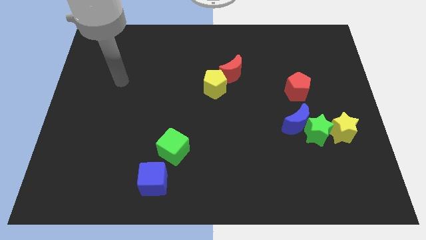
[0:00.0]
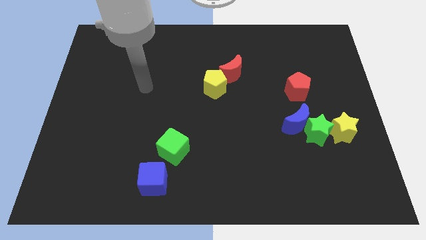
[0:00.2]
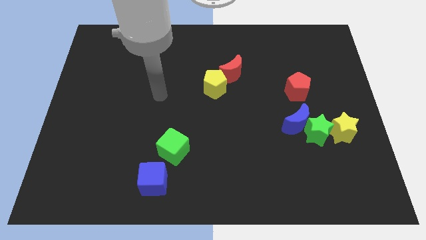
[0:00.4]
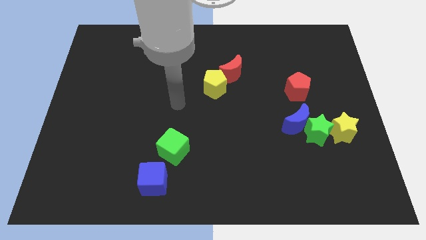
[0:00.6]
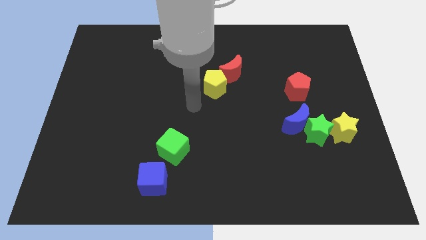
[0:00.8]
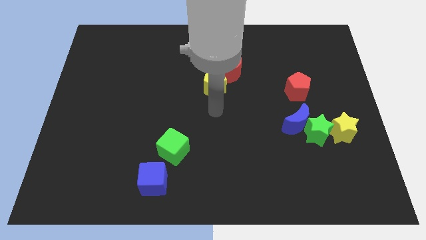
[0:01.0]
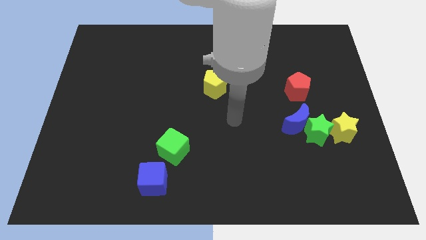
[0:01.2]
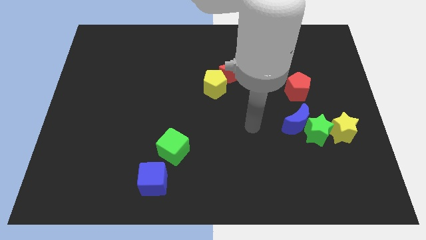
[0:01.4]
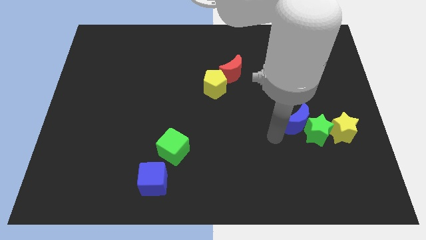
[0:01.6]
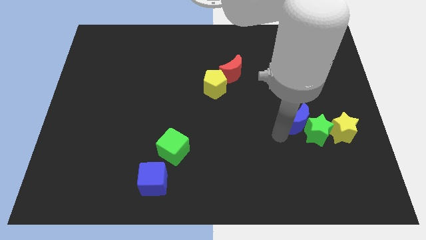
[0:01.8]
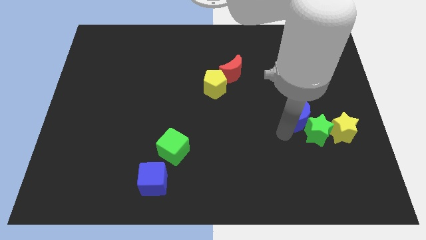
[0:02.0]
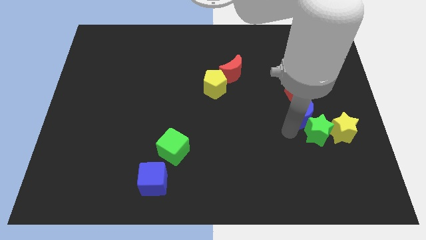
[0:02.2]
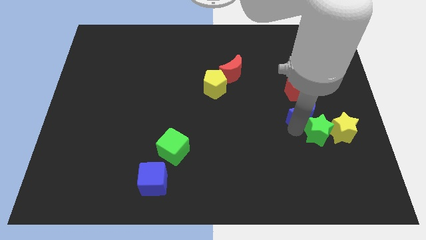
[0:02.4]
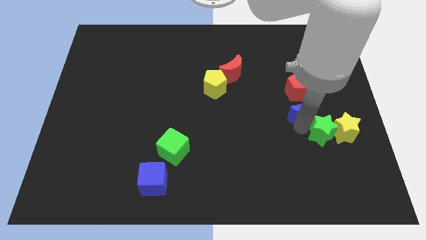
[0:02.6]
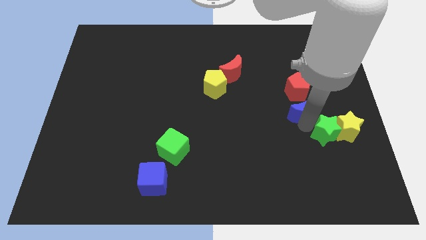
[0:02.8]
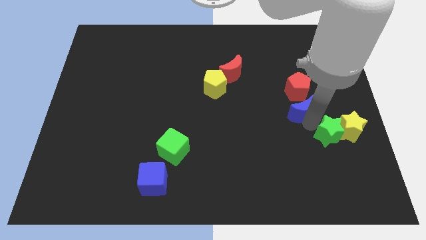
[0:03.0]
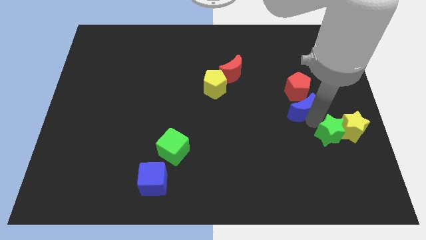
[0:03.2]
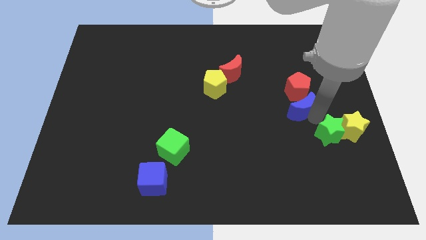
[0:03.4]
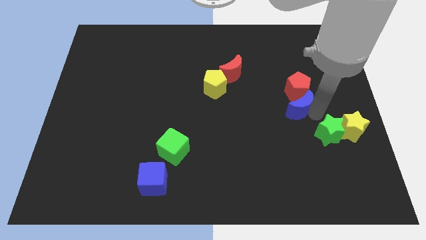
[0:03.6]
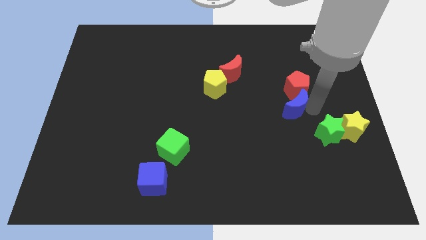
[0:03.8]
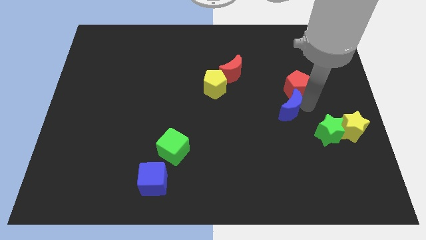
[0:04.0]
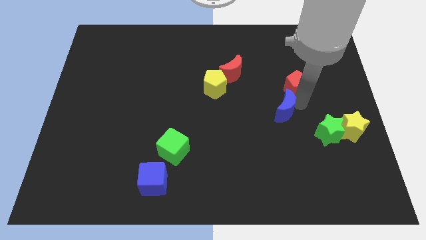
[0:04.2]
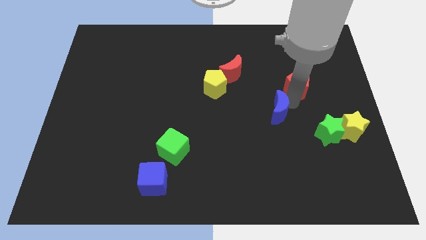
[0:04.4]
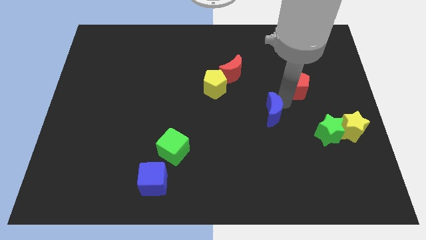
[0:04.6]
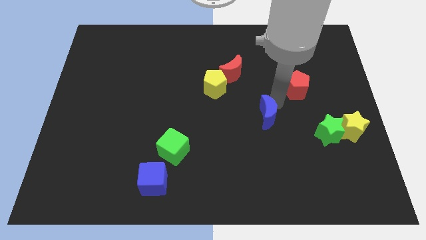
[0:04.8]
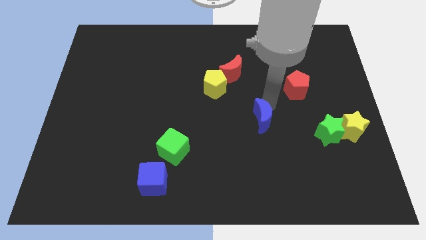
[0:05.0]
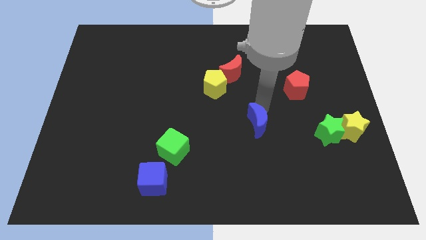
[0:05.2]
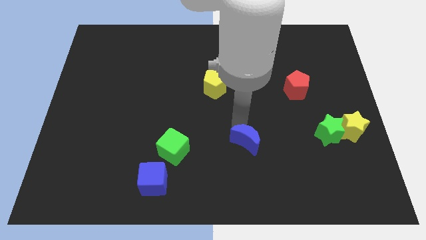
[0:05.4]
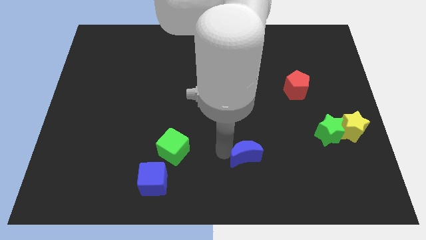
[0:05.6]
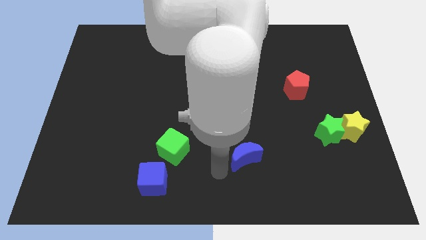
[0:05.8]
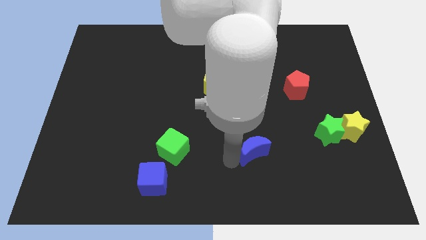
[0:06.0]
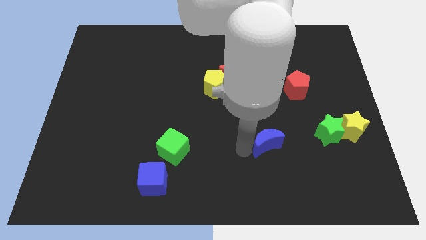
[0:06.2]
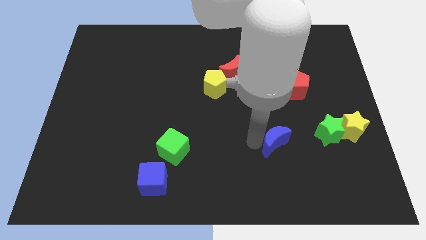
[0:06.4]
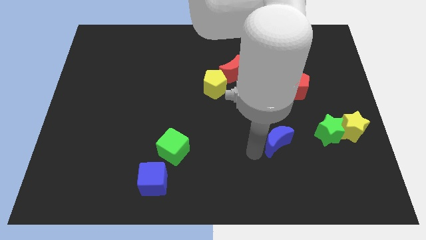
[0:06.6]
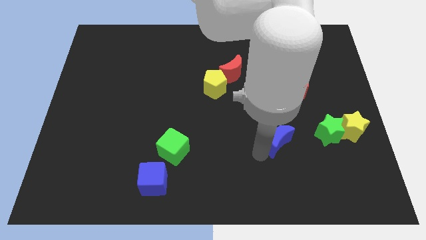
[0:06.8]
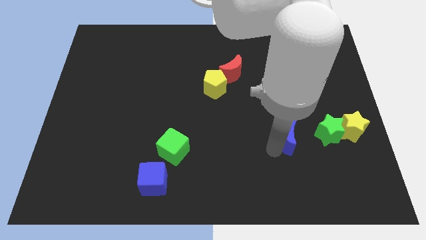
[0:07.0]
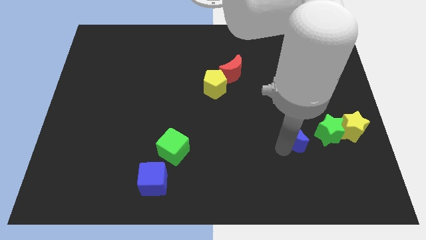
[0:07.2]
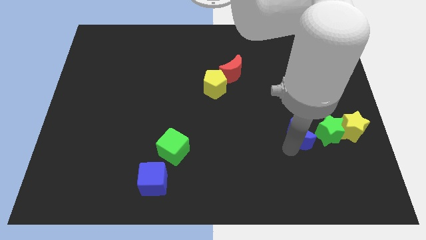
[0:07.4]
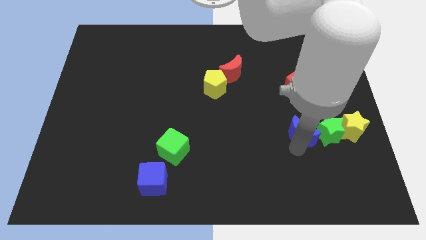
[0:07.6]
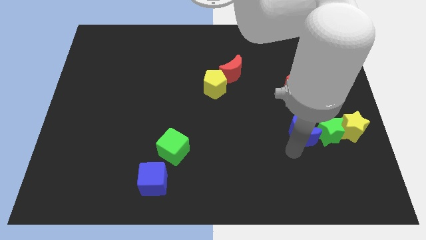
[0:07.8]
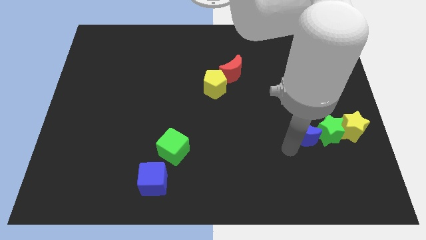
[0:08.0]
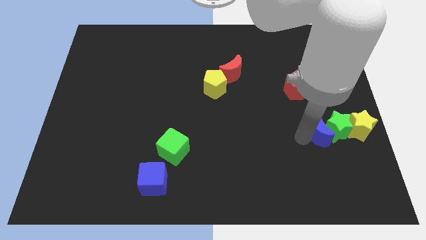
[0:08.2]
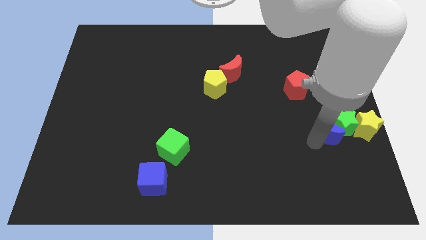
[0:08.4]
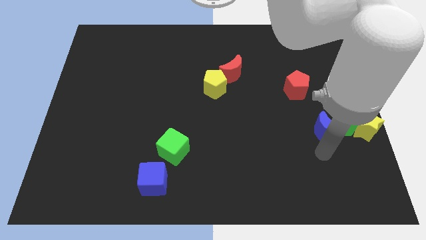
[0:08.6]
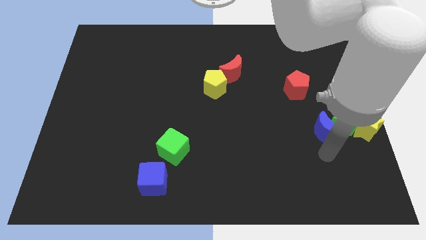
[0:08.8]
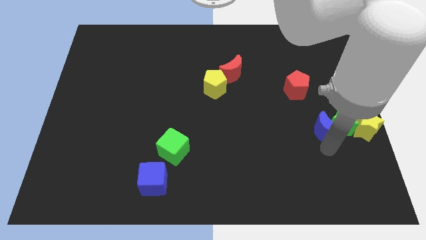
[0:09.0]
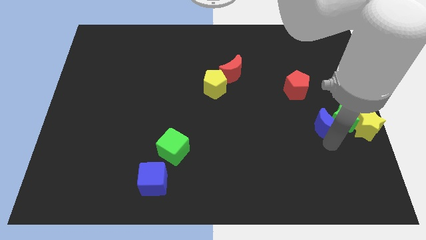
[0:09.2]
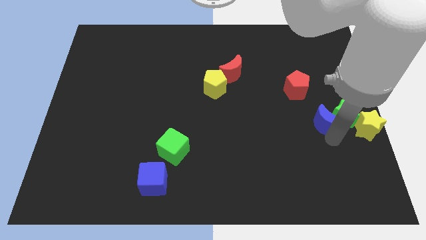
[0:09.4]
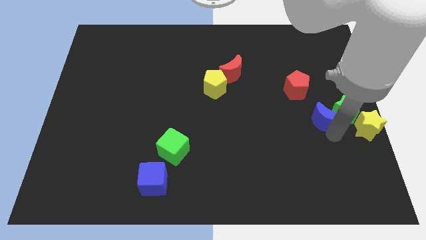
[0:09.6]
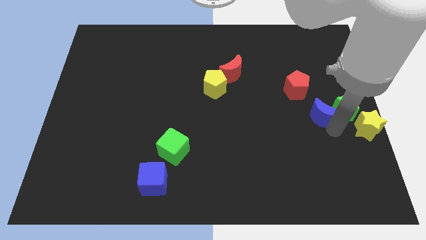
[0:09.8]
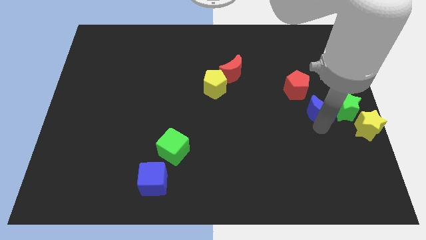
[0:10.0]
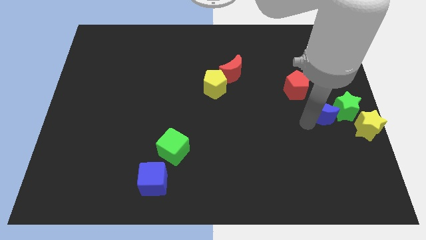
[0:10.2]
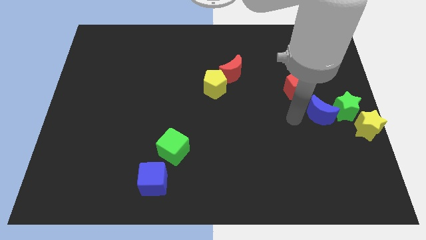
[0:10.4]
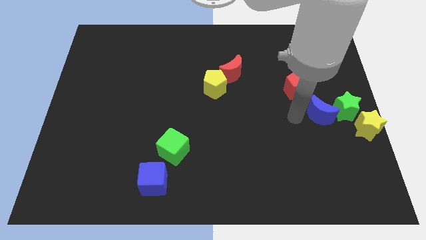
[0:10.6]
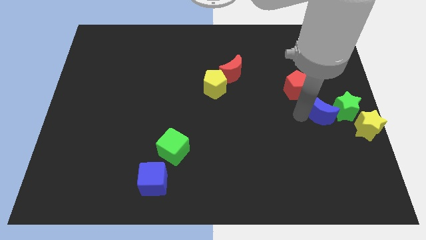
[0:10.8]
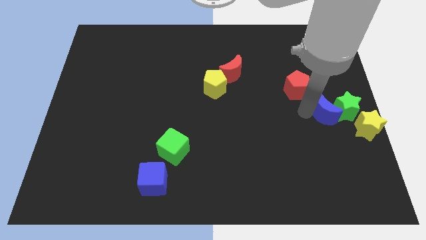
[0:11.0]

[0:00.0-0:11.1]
push the blue moon to the right side
